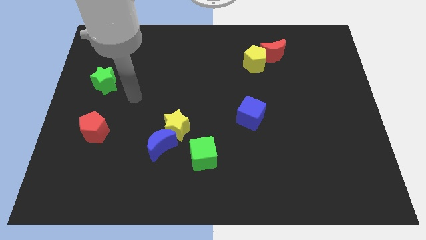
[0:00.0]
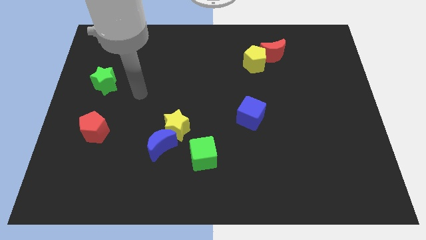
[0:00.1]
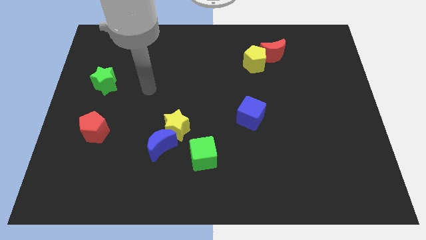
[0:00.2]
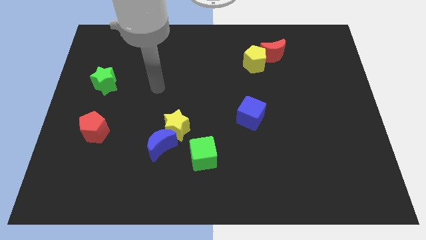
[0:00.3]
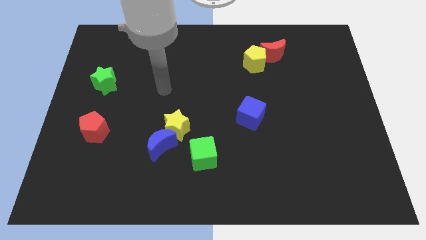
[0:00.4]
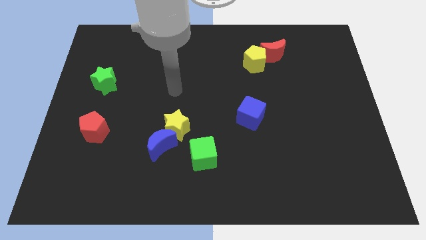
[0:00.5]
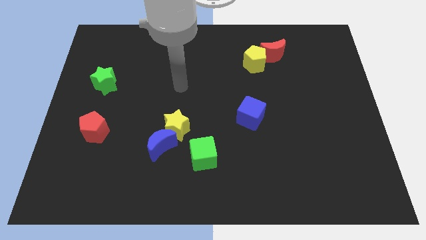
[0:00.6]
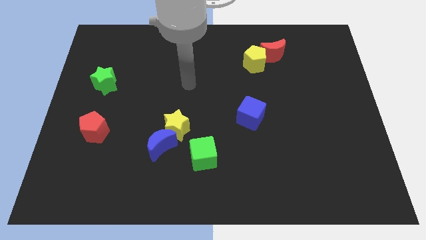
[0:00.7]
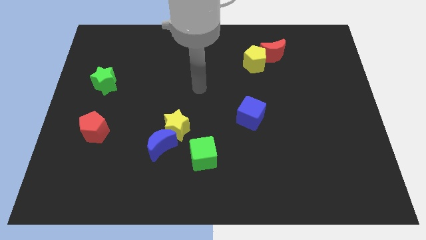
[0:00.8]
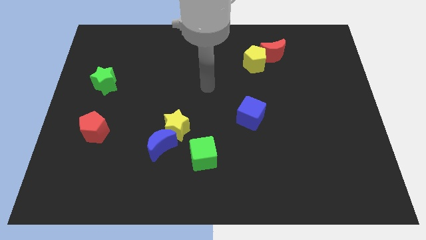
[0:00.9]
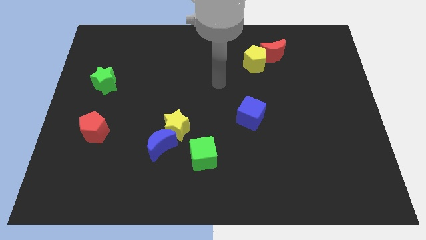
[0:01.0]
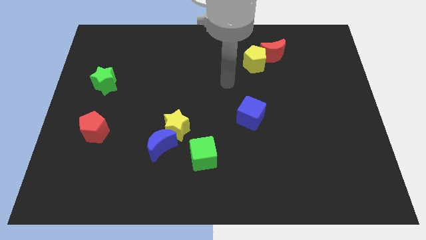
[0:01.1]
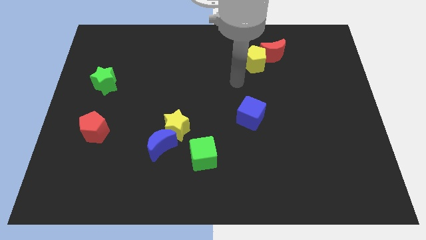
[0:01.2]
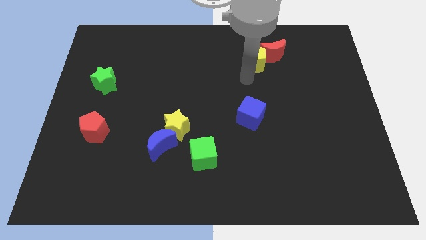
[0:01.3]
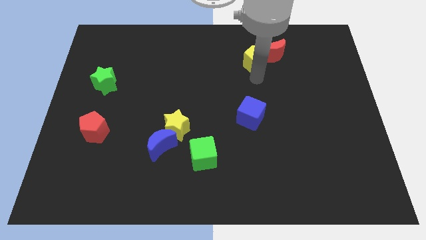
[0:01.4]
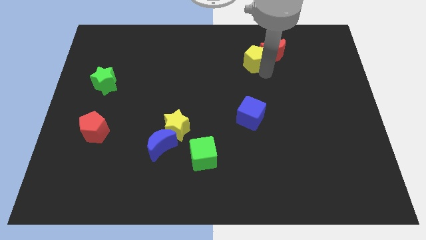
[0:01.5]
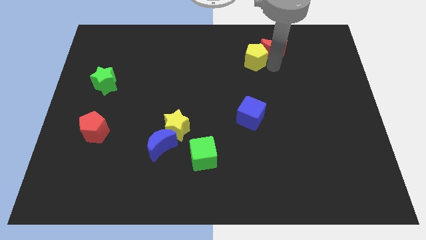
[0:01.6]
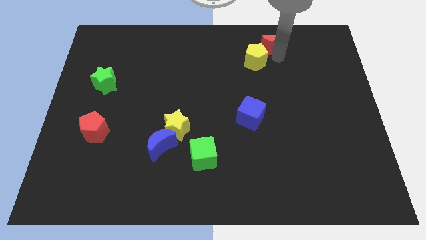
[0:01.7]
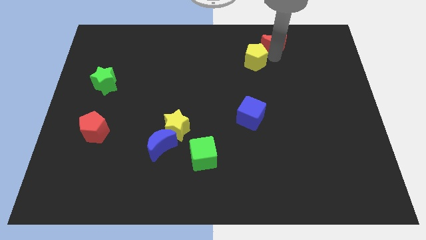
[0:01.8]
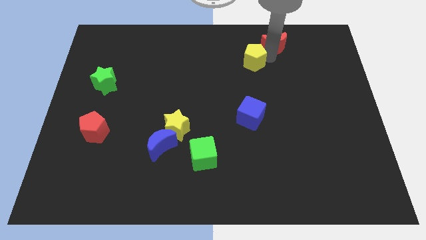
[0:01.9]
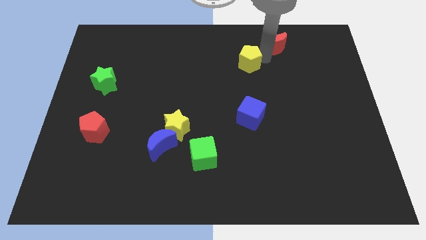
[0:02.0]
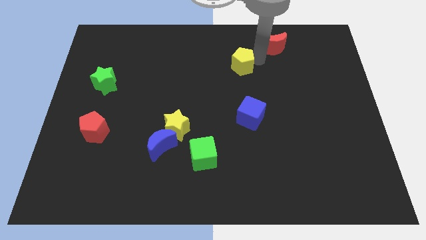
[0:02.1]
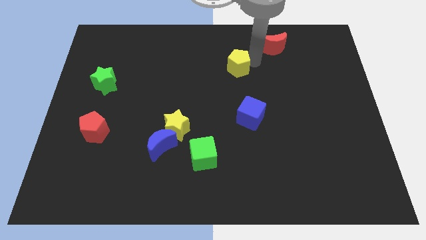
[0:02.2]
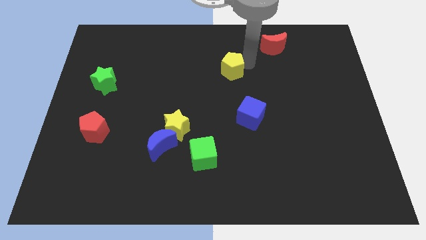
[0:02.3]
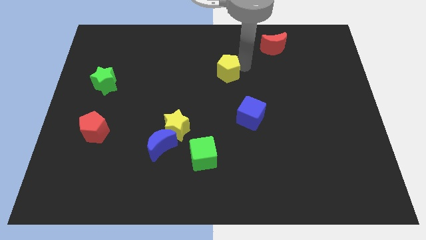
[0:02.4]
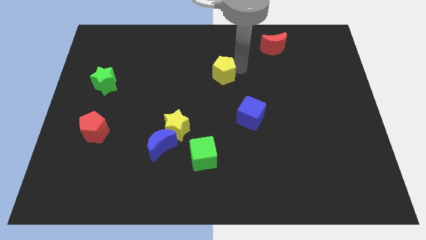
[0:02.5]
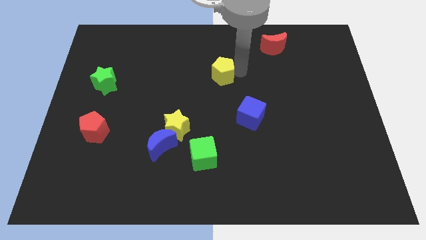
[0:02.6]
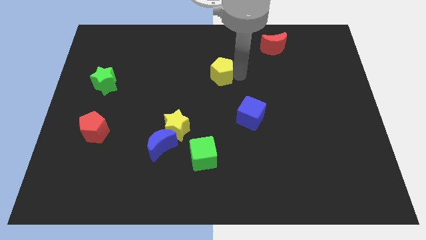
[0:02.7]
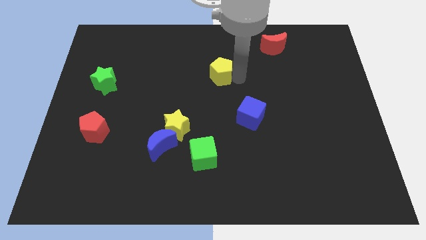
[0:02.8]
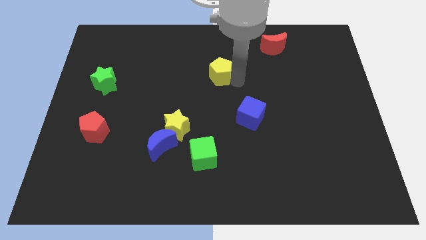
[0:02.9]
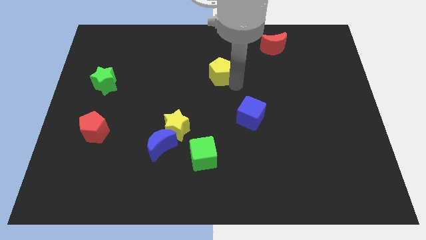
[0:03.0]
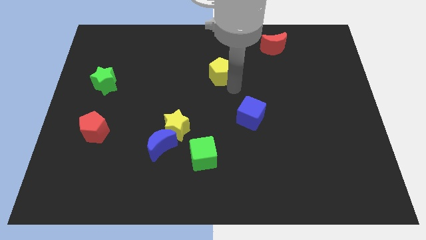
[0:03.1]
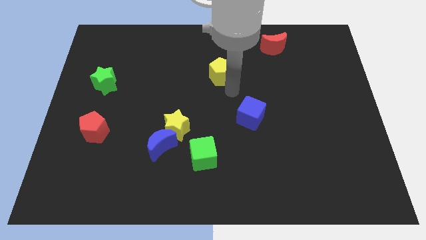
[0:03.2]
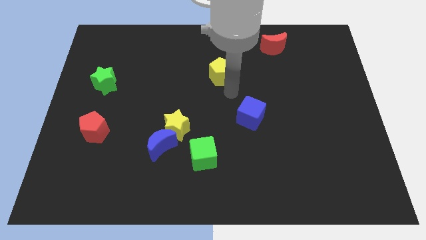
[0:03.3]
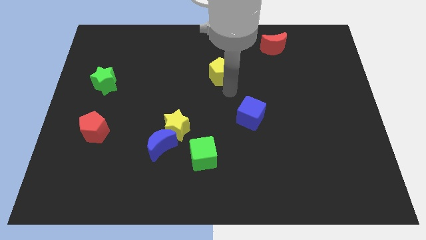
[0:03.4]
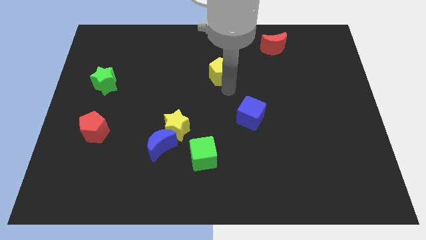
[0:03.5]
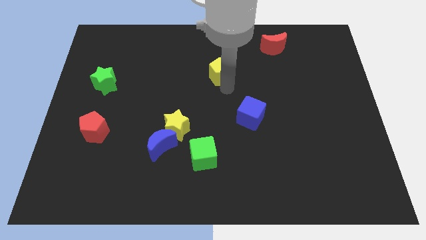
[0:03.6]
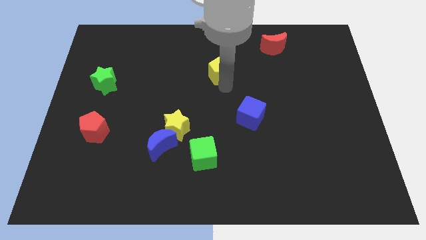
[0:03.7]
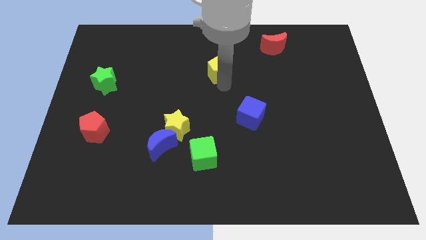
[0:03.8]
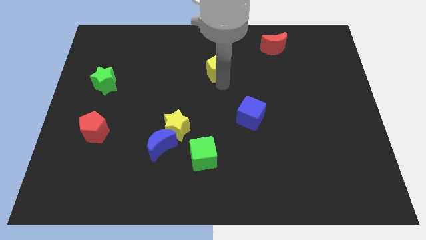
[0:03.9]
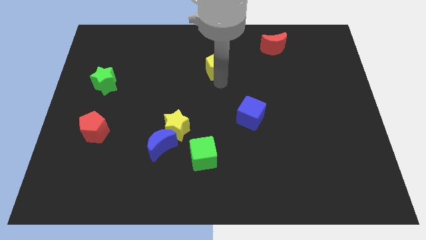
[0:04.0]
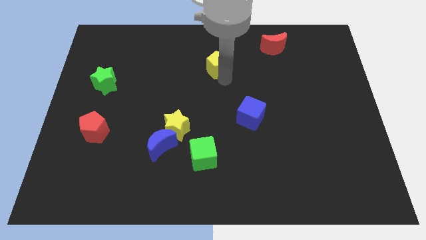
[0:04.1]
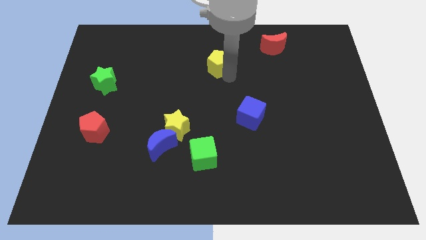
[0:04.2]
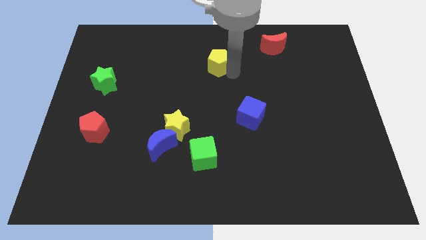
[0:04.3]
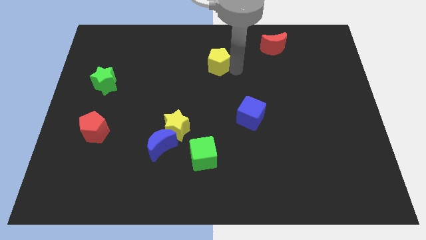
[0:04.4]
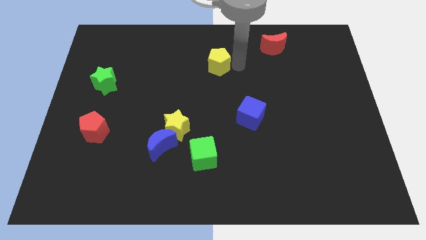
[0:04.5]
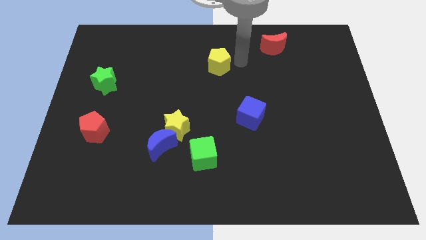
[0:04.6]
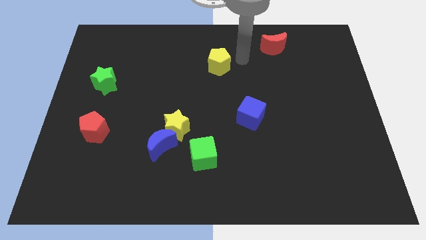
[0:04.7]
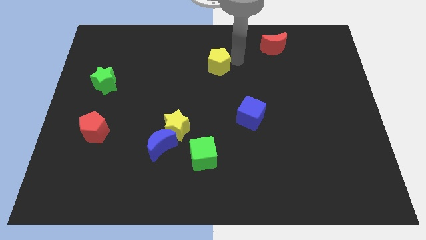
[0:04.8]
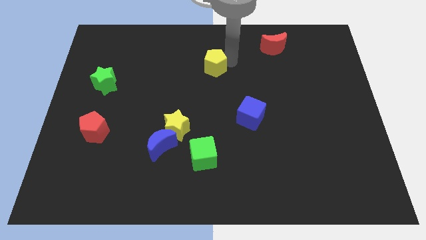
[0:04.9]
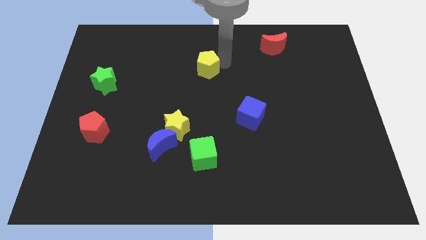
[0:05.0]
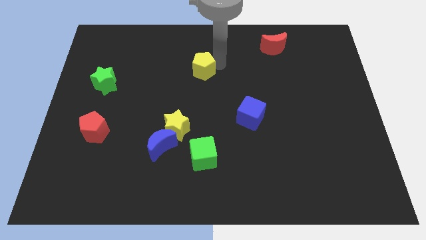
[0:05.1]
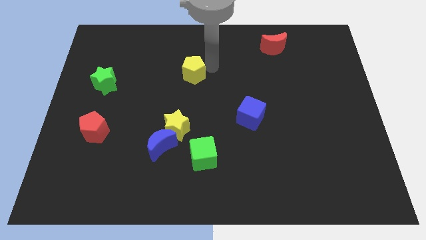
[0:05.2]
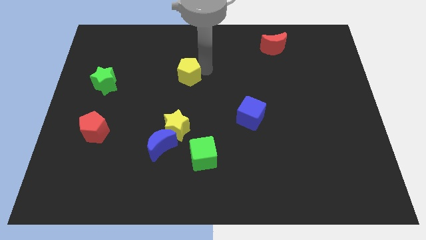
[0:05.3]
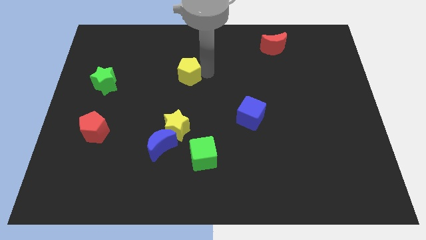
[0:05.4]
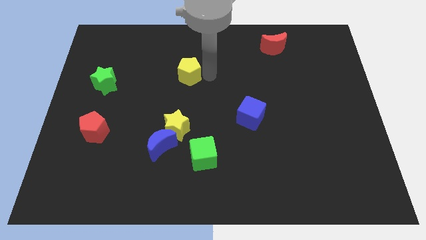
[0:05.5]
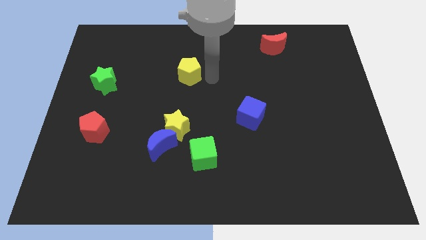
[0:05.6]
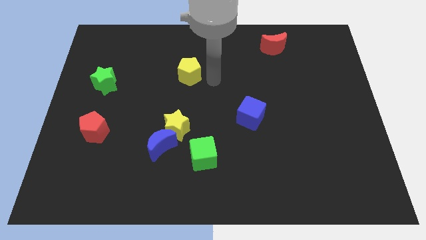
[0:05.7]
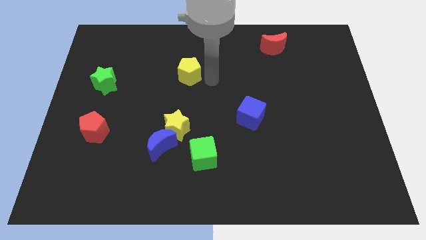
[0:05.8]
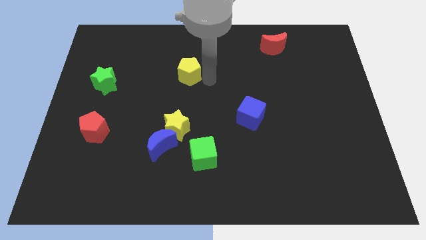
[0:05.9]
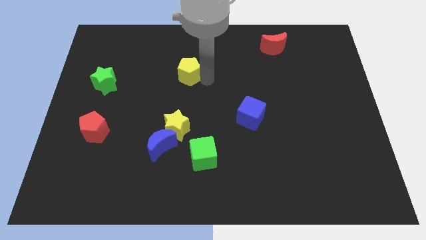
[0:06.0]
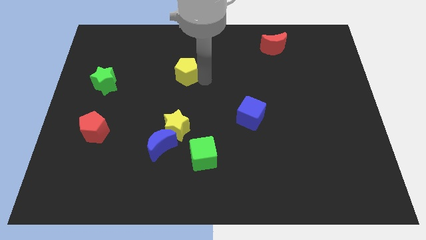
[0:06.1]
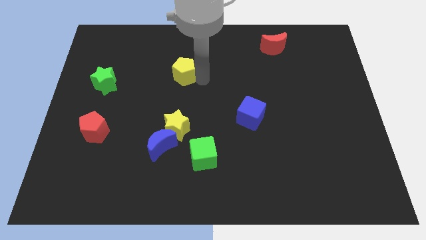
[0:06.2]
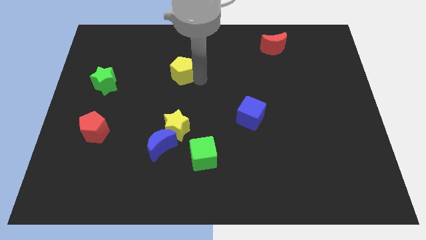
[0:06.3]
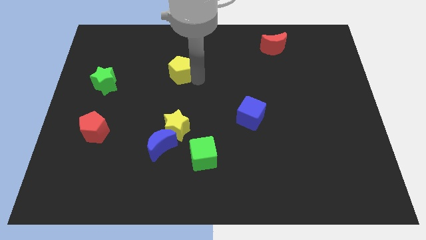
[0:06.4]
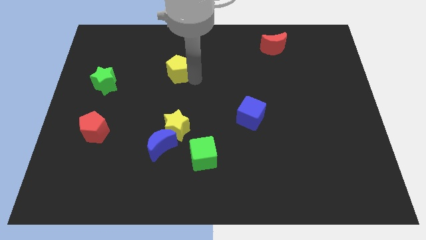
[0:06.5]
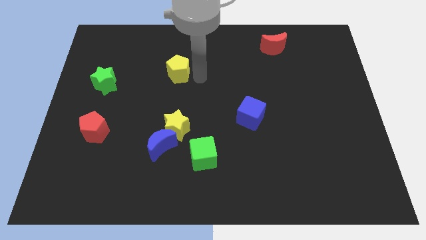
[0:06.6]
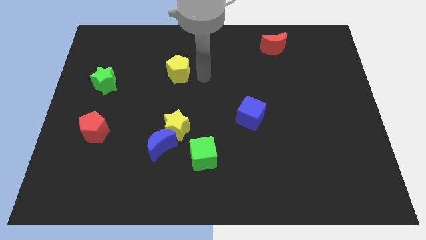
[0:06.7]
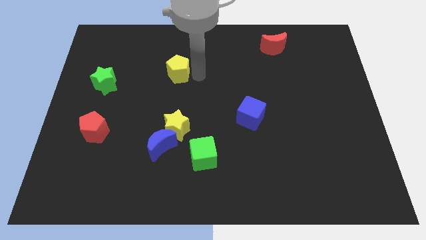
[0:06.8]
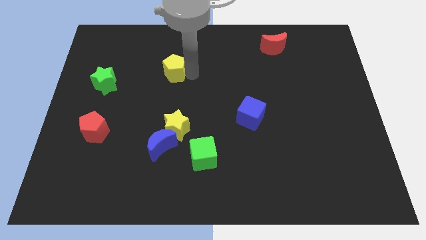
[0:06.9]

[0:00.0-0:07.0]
push the yellow pentagon to the left

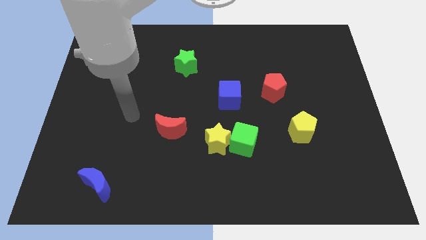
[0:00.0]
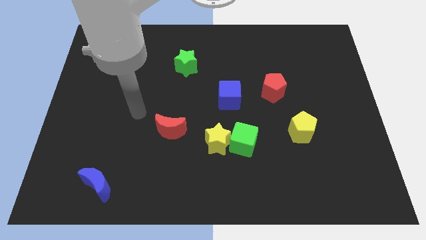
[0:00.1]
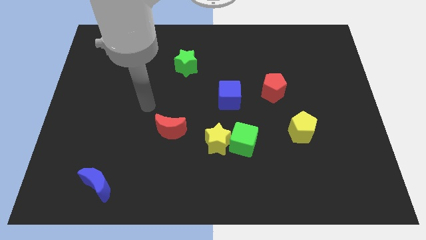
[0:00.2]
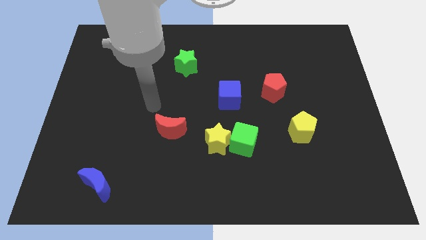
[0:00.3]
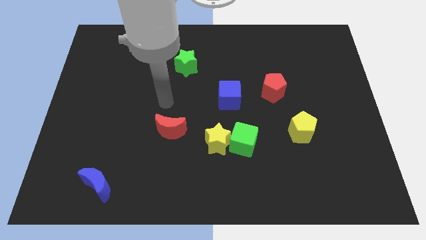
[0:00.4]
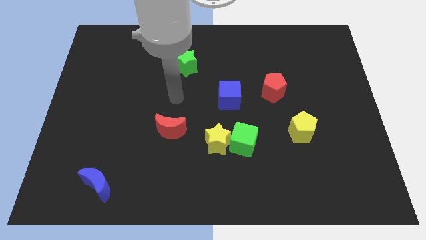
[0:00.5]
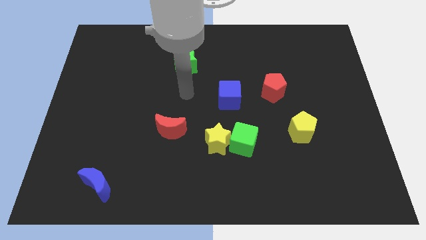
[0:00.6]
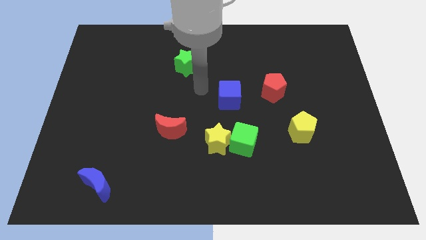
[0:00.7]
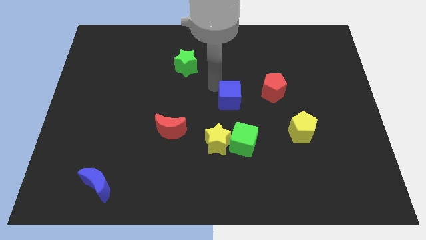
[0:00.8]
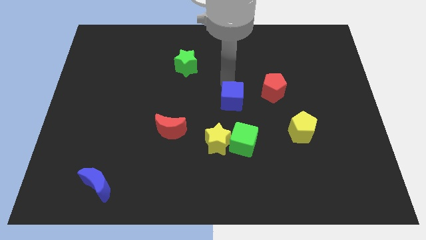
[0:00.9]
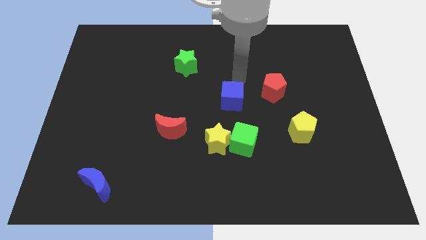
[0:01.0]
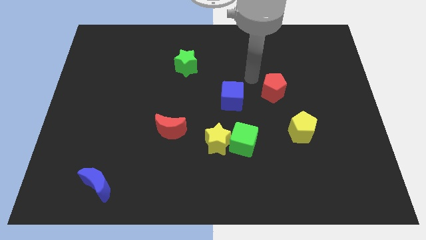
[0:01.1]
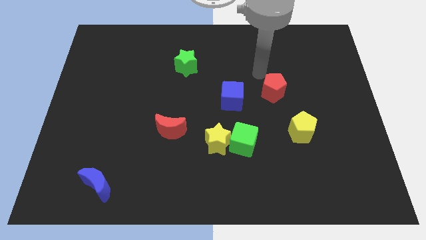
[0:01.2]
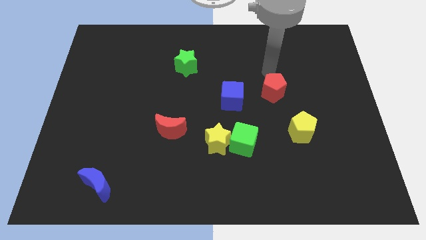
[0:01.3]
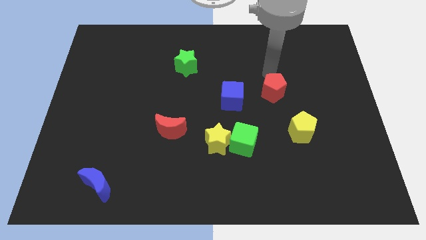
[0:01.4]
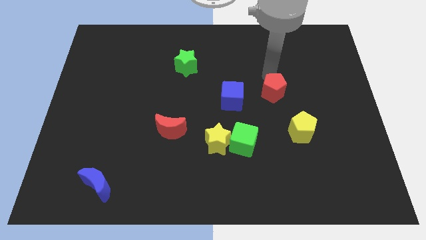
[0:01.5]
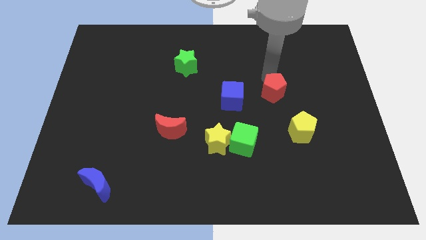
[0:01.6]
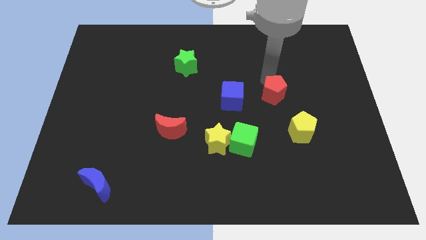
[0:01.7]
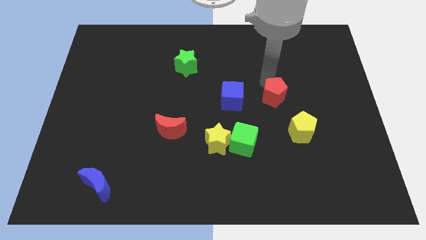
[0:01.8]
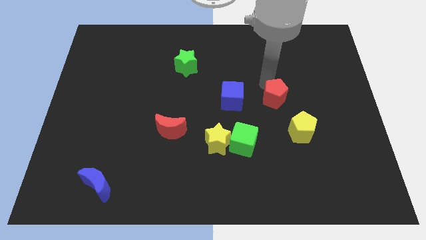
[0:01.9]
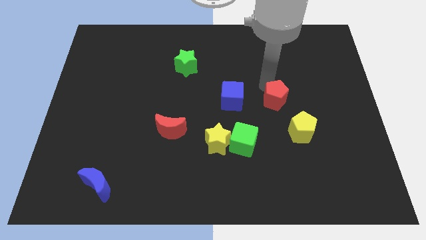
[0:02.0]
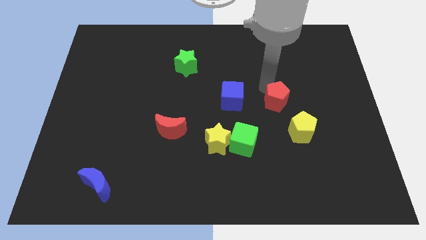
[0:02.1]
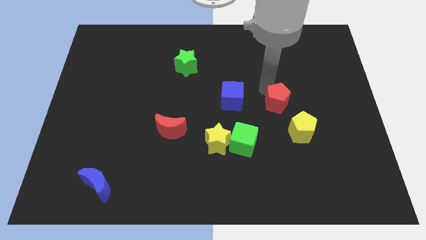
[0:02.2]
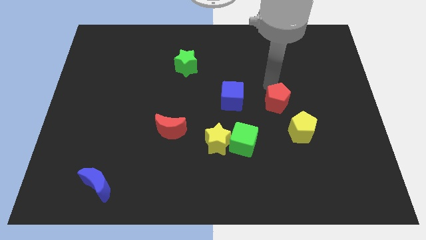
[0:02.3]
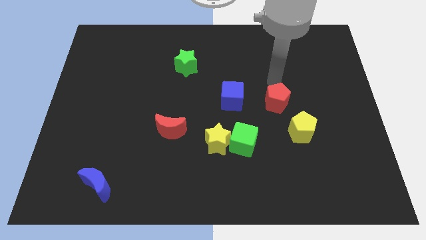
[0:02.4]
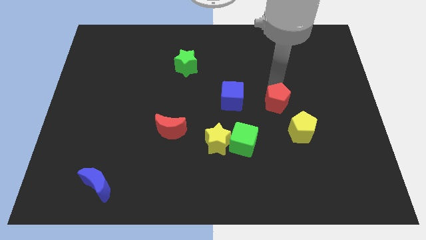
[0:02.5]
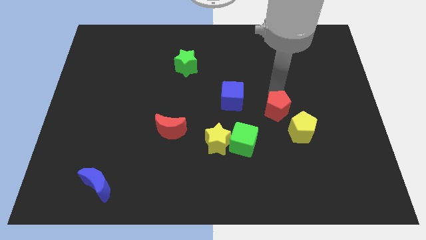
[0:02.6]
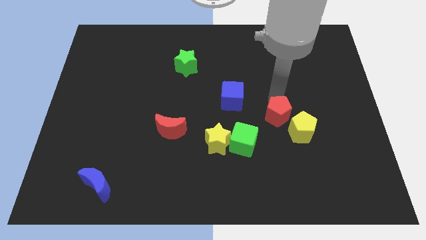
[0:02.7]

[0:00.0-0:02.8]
slightly slide the red pentagon down
